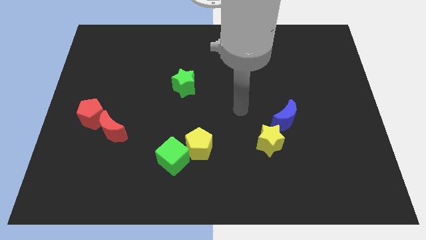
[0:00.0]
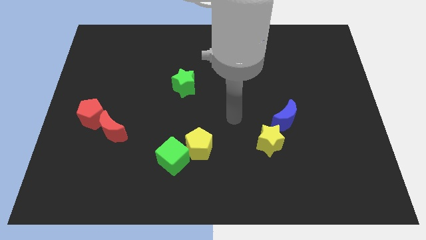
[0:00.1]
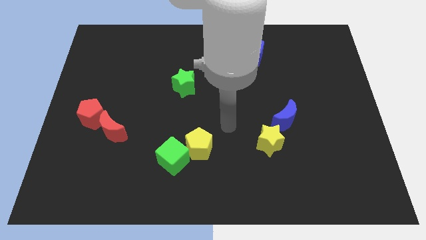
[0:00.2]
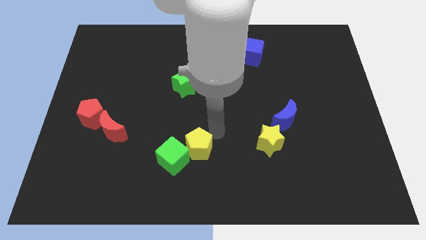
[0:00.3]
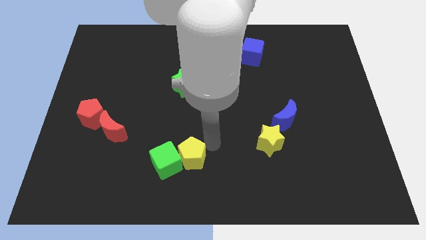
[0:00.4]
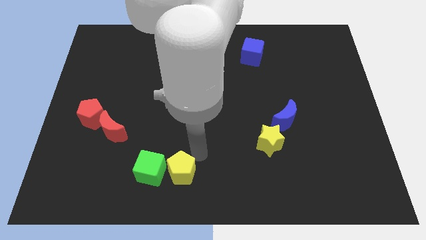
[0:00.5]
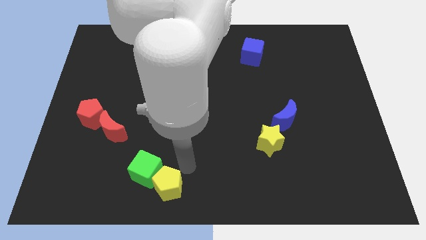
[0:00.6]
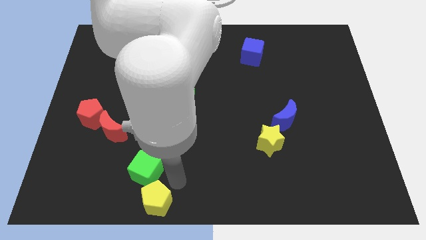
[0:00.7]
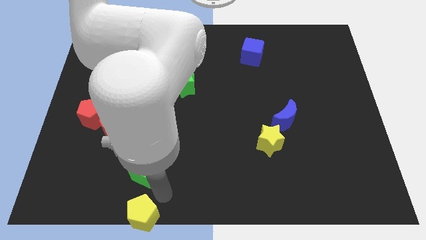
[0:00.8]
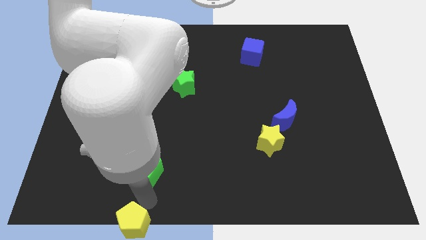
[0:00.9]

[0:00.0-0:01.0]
pull the green cube apart from the yellow pentagon

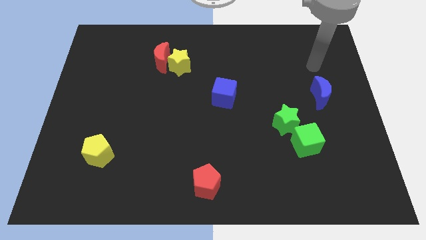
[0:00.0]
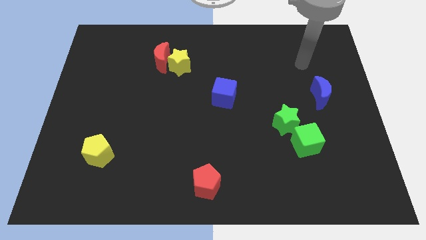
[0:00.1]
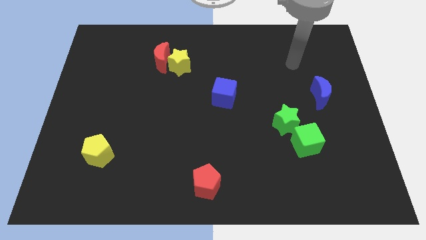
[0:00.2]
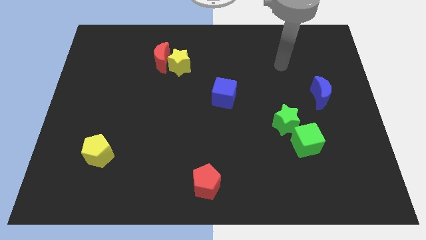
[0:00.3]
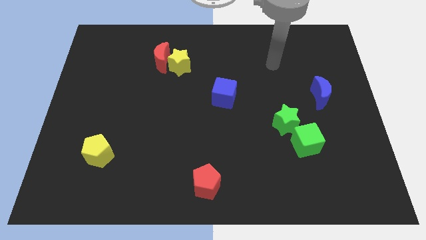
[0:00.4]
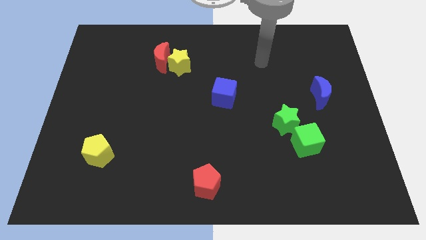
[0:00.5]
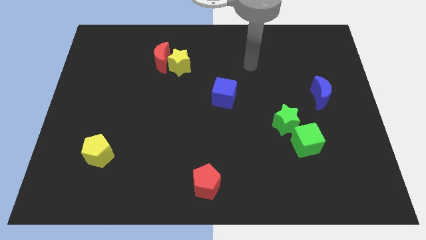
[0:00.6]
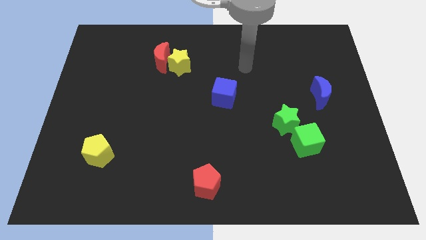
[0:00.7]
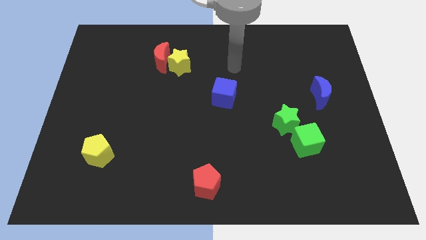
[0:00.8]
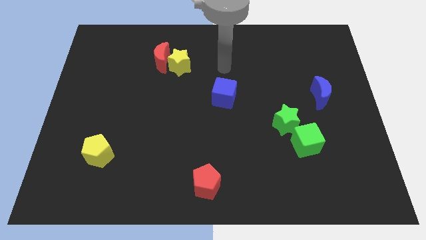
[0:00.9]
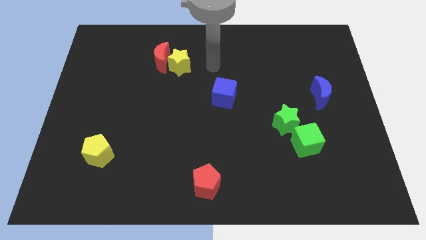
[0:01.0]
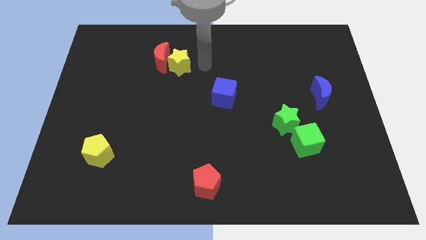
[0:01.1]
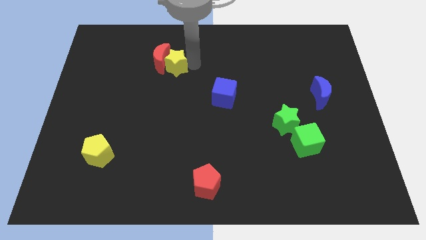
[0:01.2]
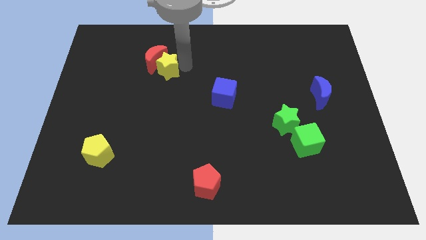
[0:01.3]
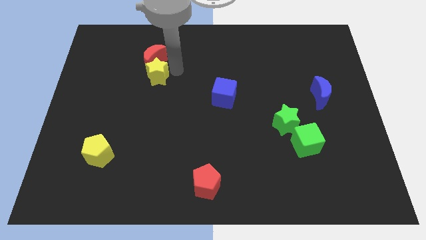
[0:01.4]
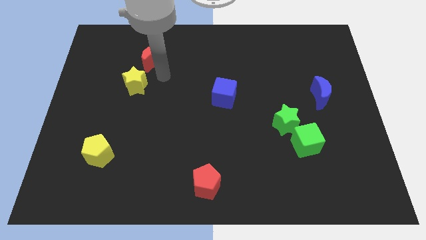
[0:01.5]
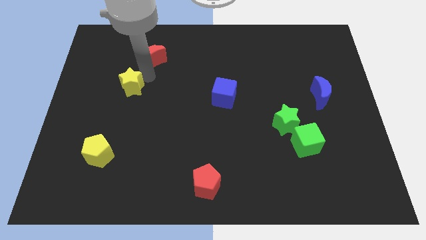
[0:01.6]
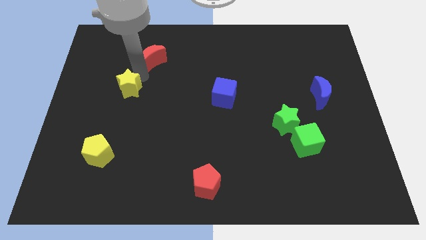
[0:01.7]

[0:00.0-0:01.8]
pull the red moon apart from the yellow star

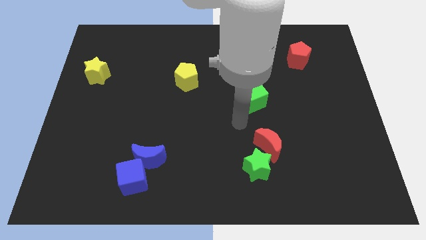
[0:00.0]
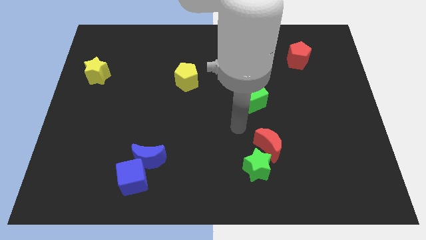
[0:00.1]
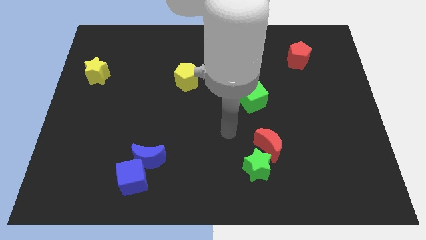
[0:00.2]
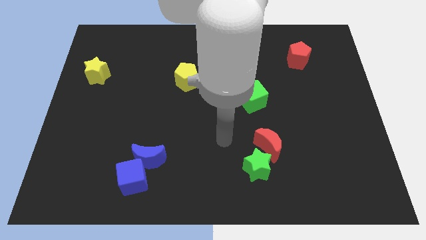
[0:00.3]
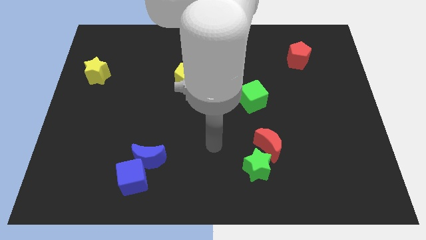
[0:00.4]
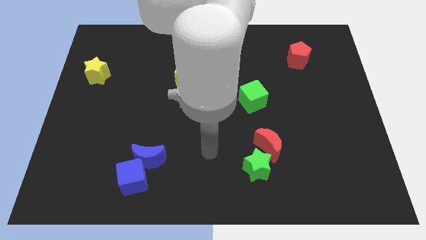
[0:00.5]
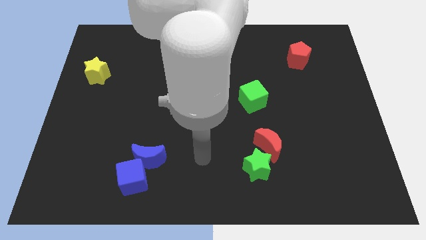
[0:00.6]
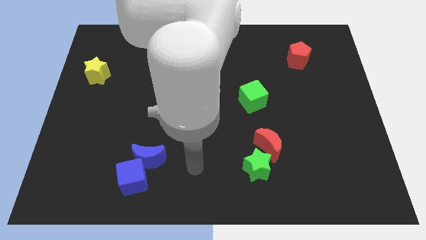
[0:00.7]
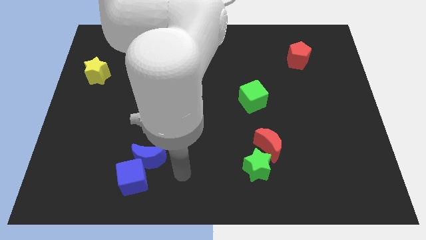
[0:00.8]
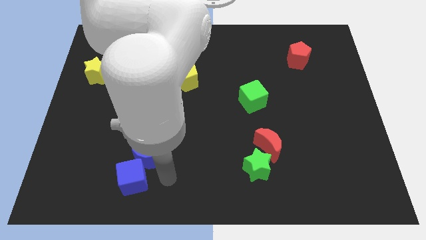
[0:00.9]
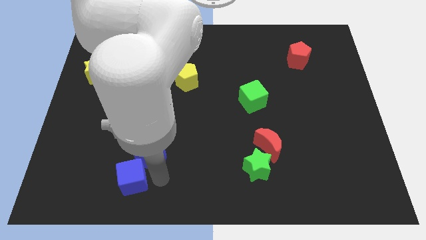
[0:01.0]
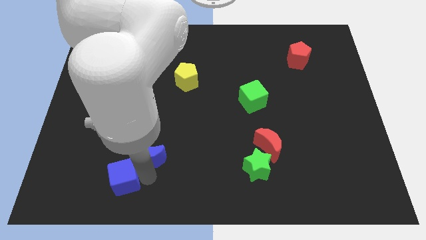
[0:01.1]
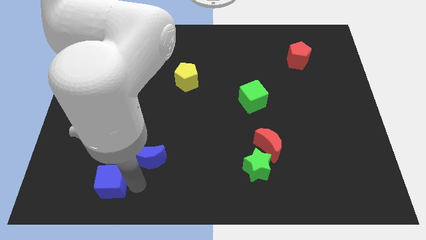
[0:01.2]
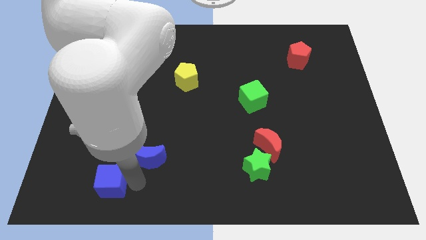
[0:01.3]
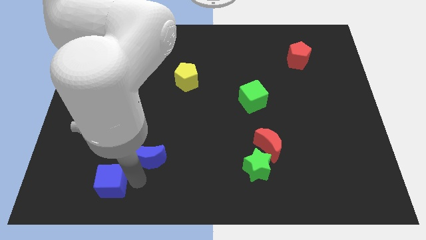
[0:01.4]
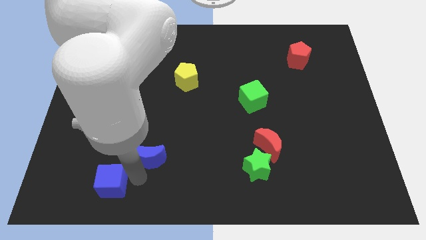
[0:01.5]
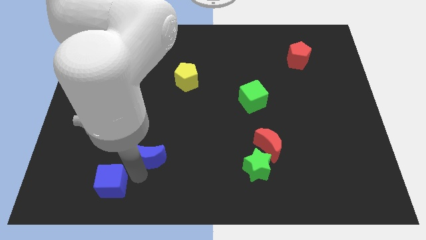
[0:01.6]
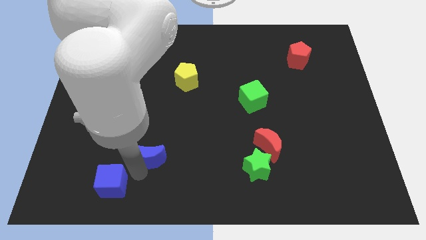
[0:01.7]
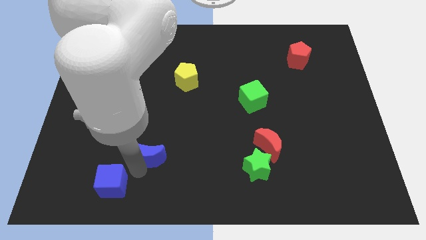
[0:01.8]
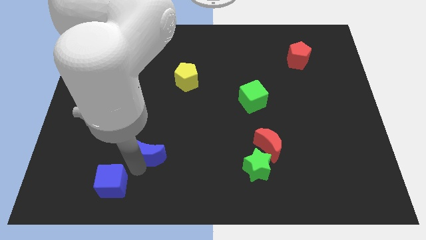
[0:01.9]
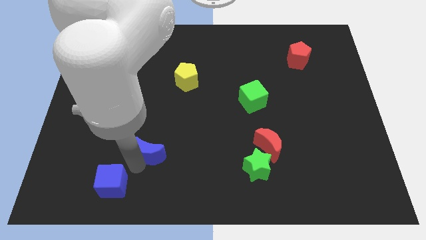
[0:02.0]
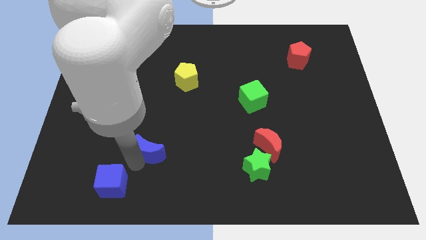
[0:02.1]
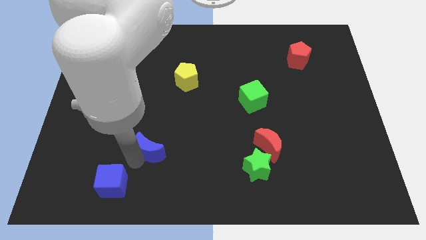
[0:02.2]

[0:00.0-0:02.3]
separate the blue moon from the blue cube

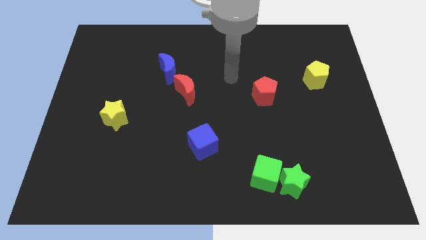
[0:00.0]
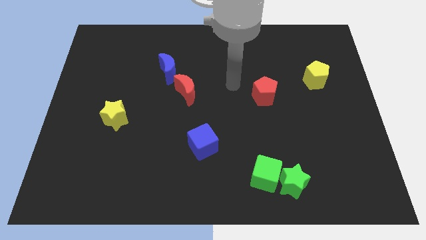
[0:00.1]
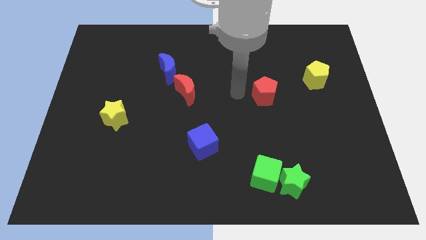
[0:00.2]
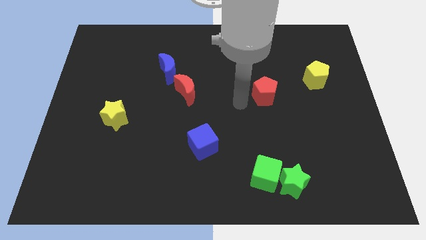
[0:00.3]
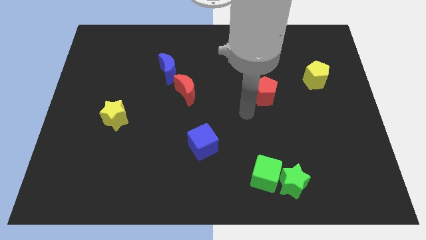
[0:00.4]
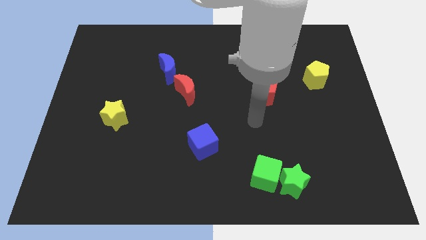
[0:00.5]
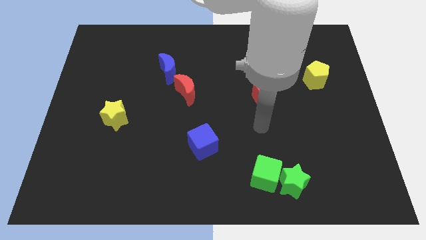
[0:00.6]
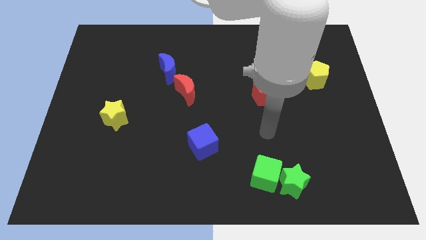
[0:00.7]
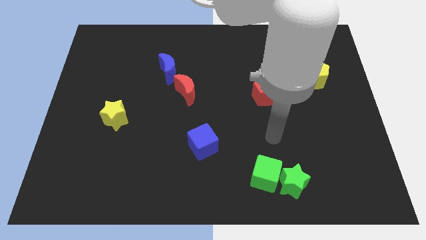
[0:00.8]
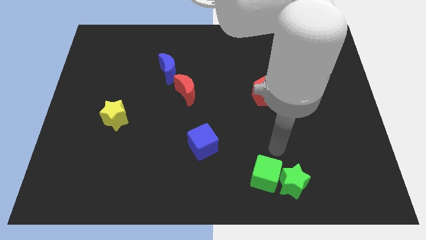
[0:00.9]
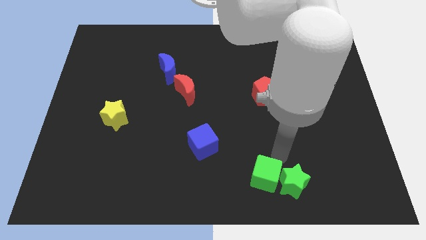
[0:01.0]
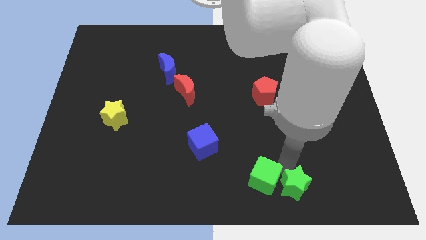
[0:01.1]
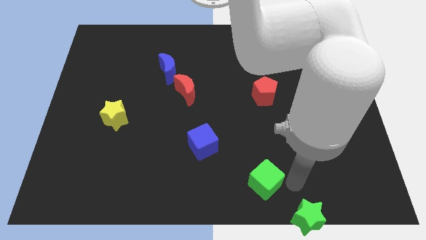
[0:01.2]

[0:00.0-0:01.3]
pull the green cube apart from the green star

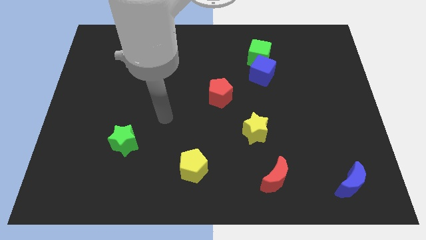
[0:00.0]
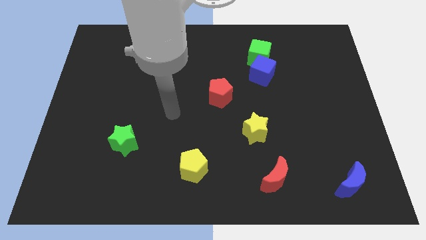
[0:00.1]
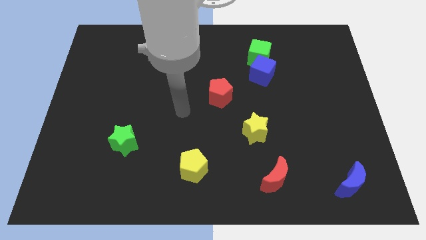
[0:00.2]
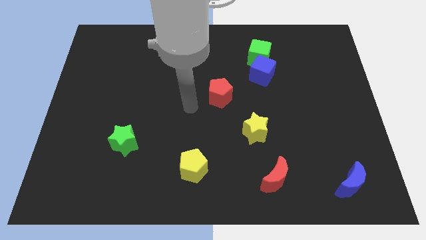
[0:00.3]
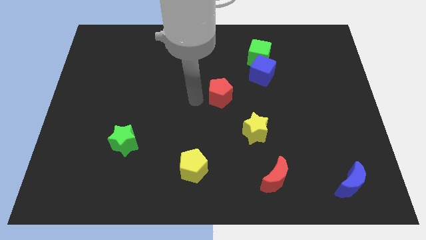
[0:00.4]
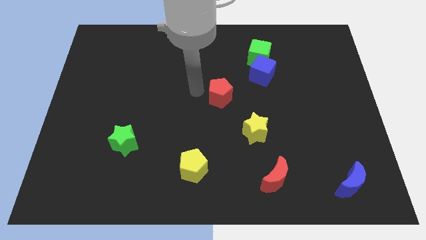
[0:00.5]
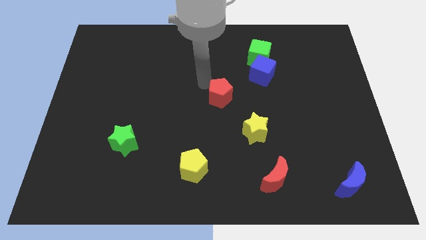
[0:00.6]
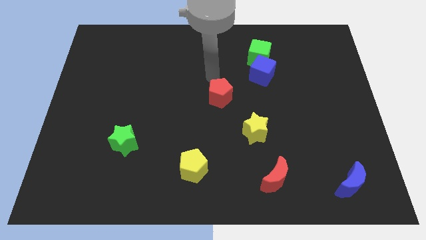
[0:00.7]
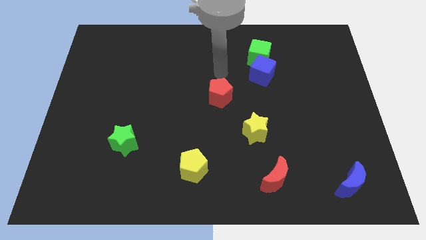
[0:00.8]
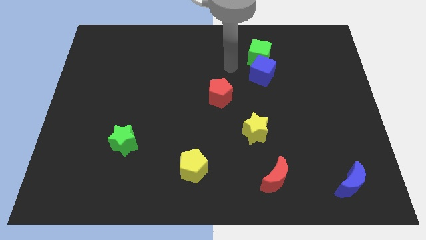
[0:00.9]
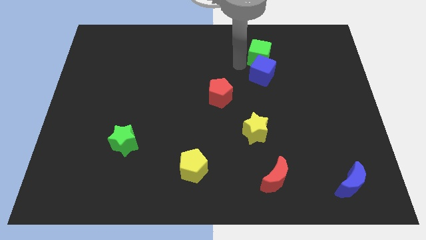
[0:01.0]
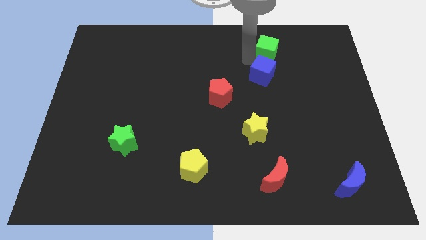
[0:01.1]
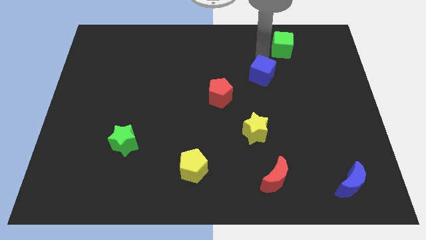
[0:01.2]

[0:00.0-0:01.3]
pull the blue cube apart from the green cube

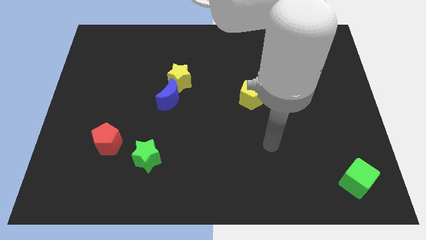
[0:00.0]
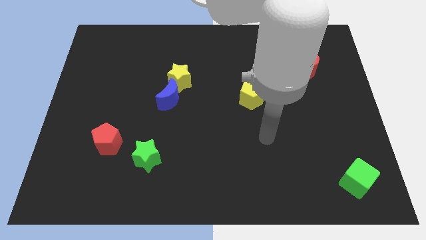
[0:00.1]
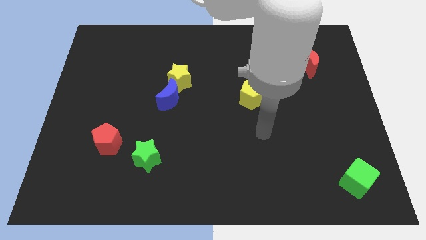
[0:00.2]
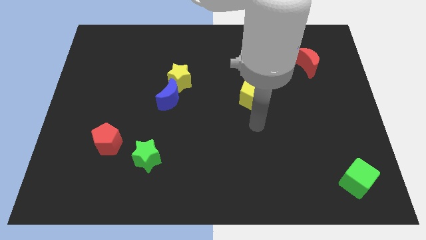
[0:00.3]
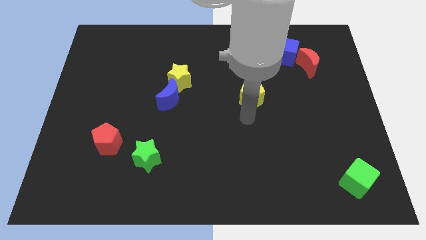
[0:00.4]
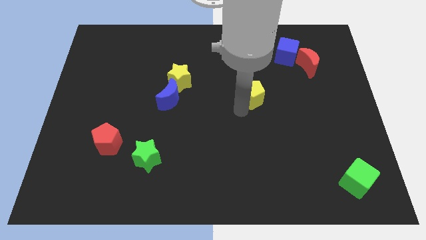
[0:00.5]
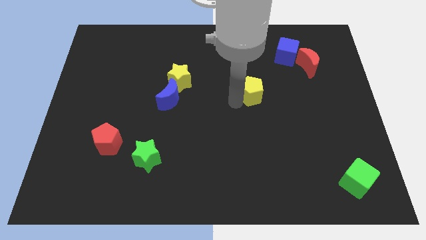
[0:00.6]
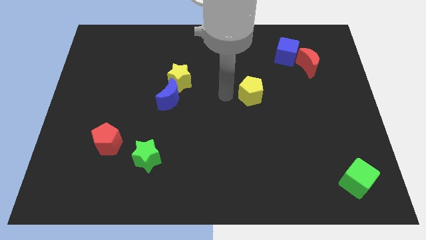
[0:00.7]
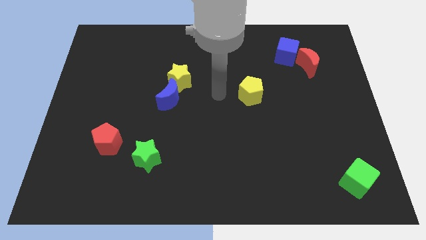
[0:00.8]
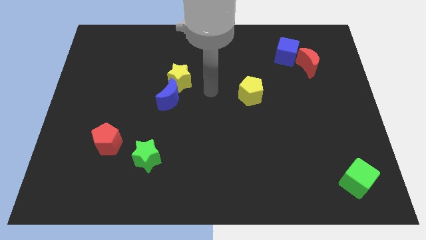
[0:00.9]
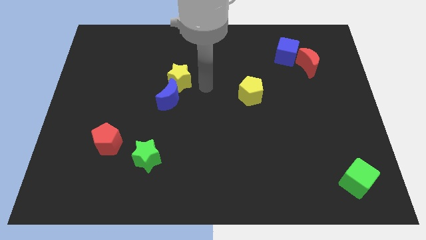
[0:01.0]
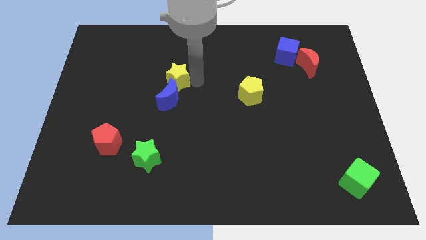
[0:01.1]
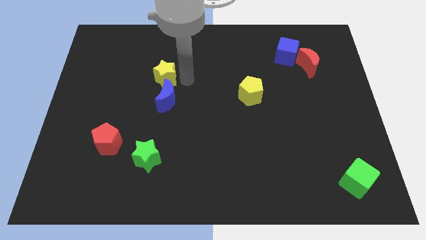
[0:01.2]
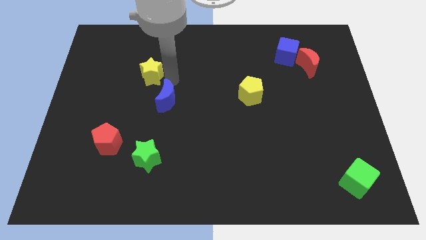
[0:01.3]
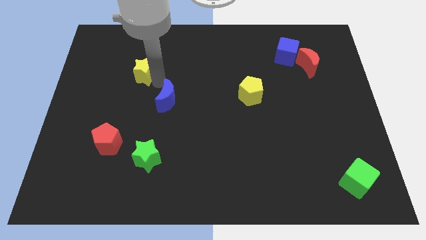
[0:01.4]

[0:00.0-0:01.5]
move the blue moon away from the yellow star
